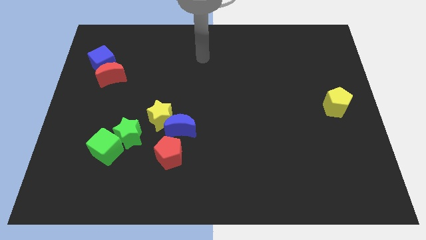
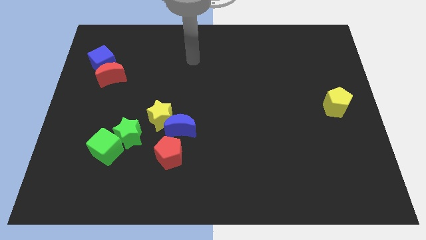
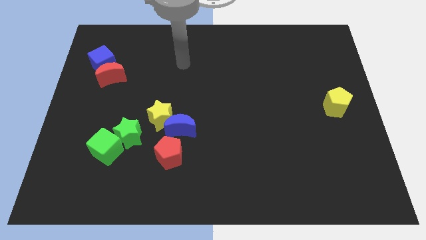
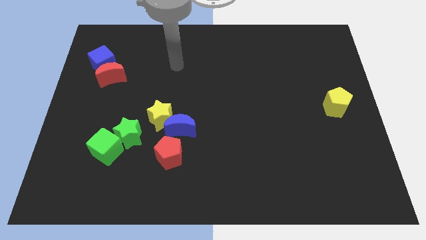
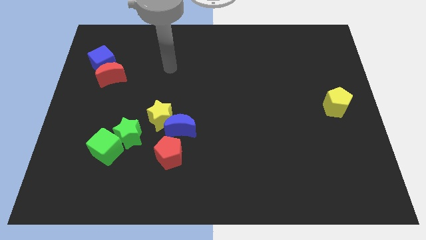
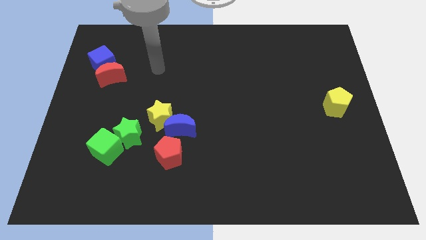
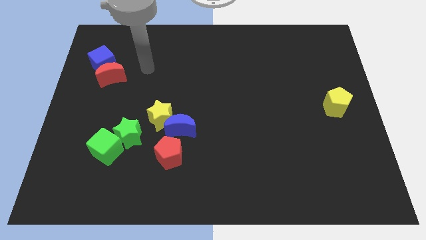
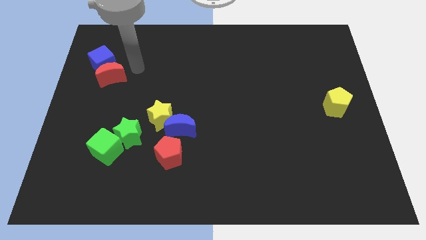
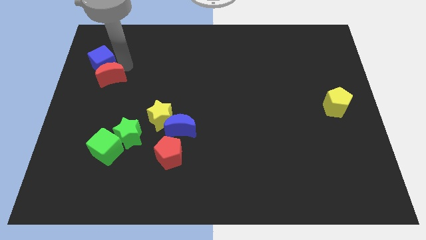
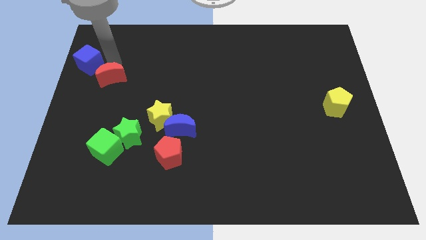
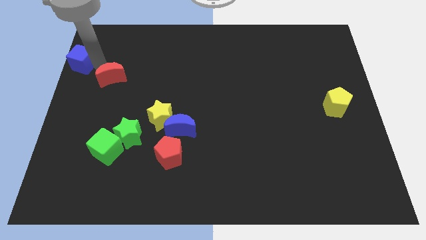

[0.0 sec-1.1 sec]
pull the red moon apart from the blue cube

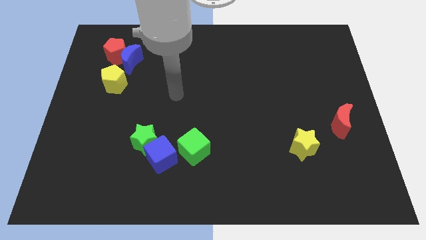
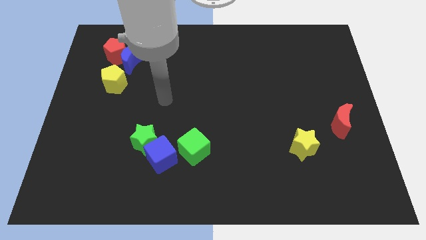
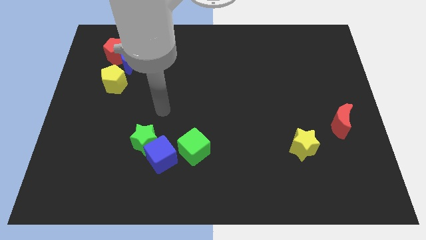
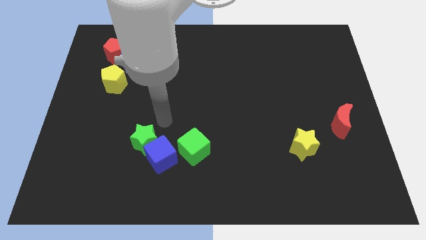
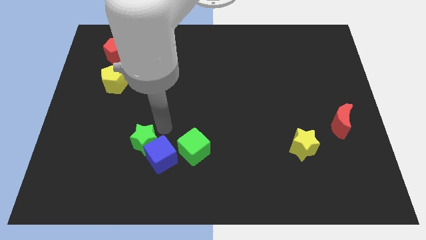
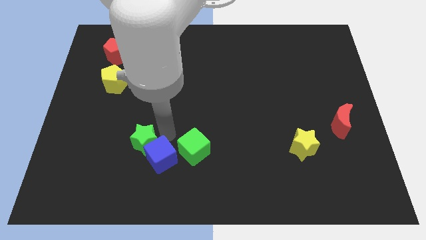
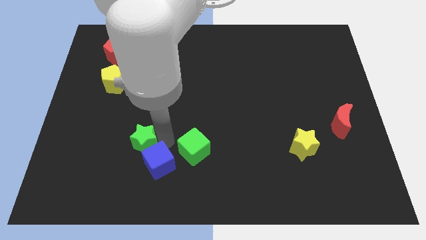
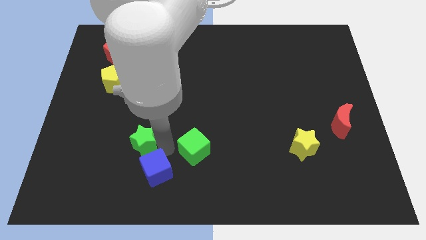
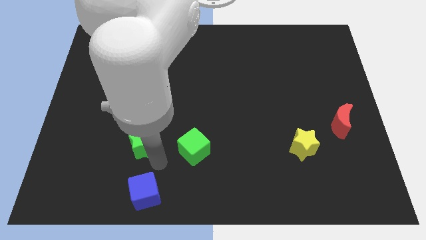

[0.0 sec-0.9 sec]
move the green star away from the blue cube

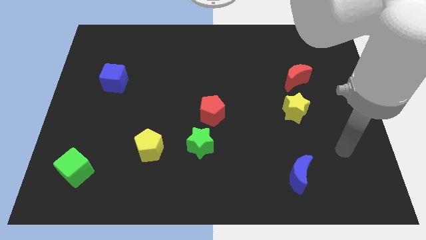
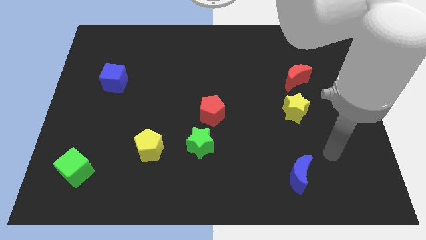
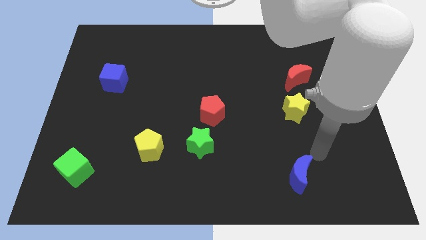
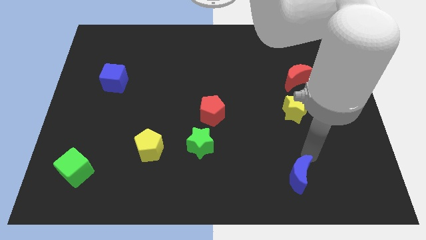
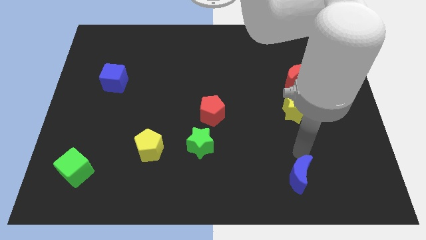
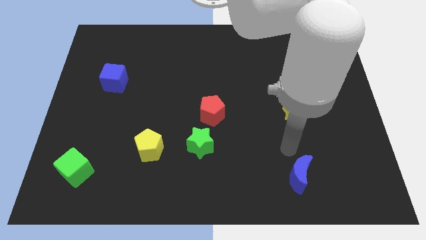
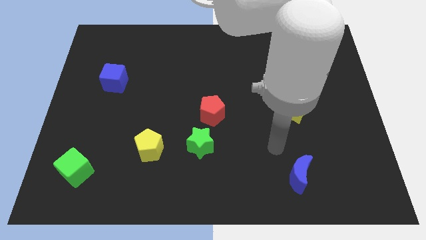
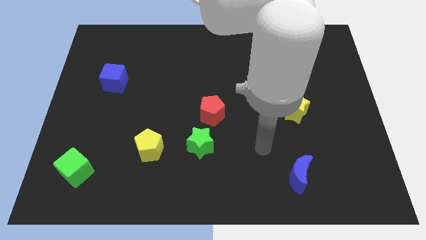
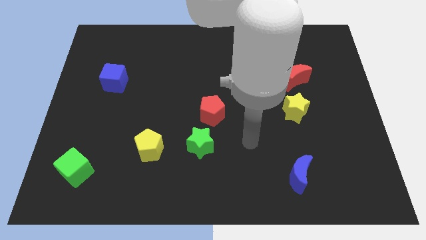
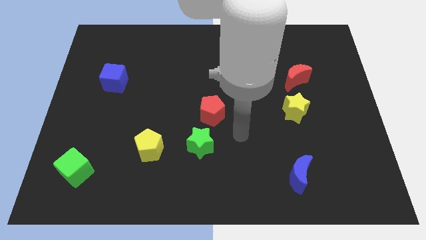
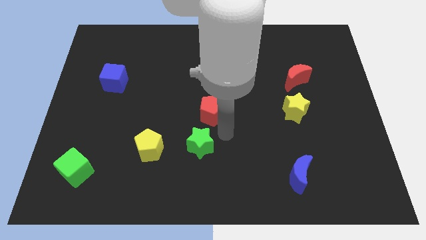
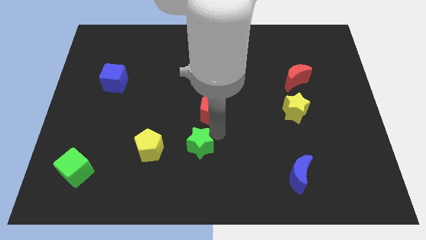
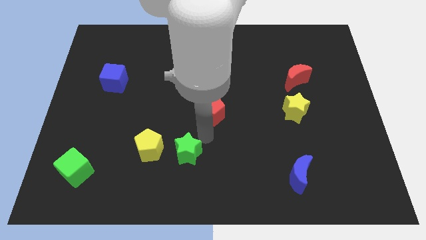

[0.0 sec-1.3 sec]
move the red pentagon away from the green star

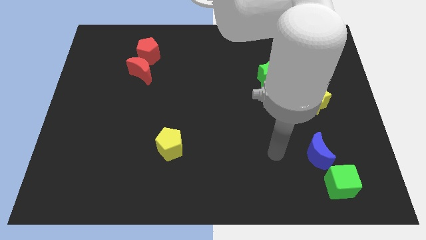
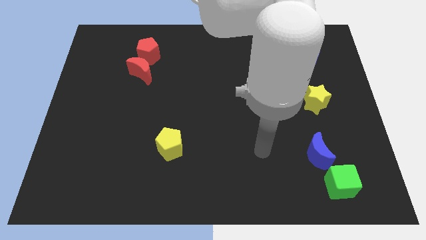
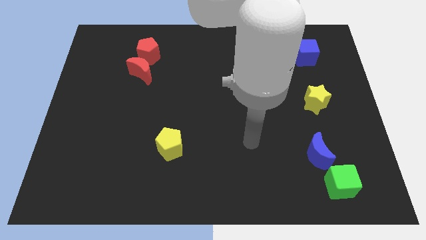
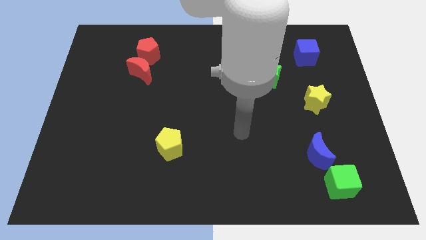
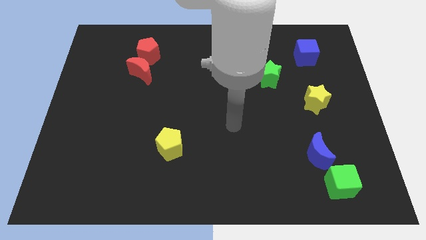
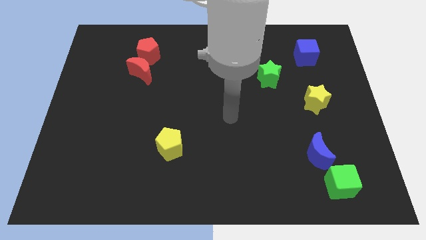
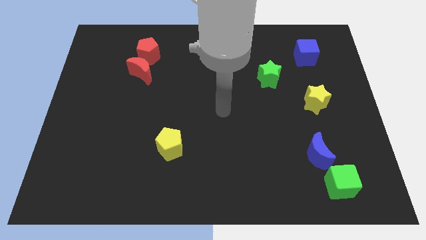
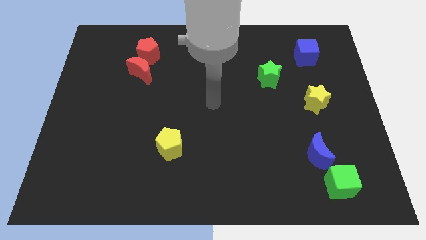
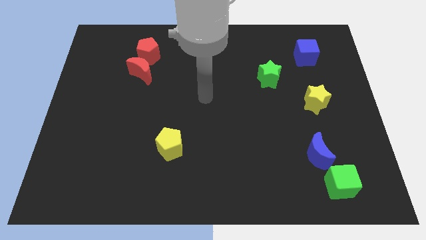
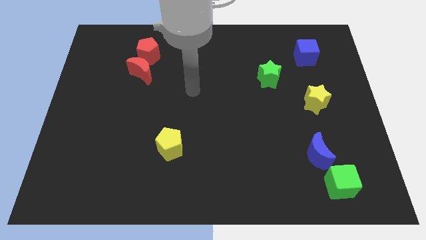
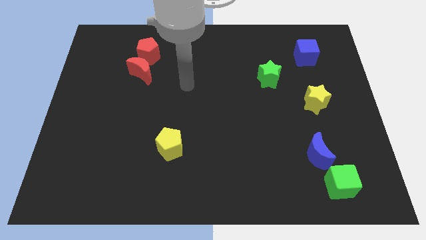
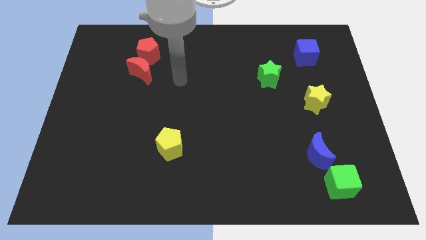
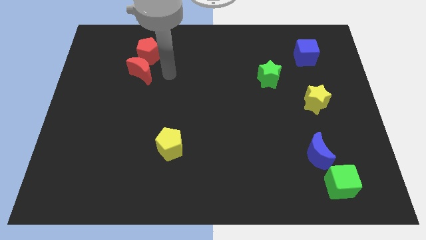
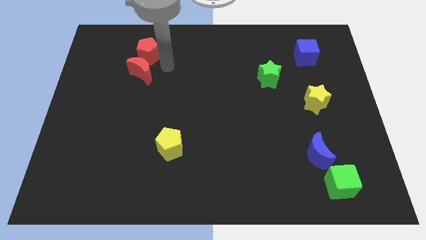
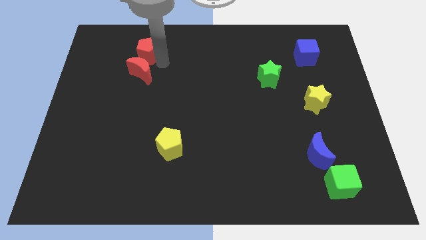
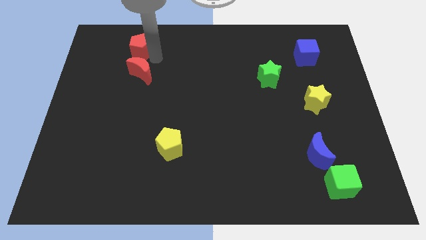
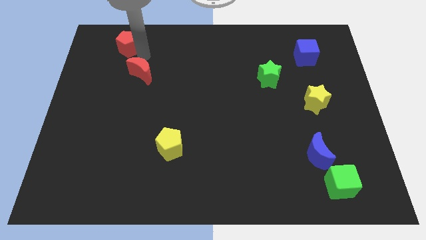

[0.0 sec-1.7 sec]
separate the red moon from the red pentagon

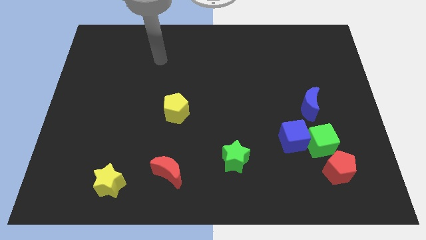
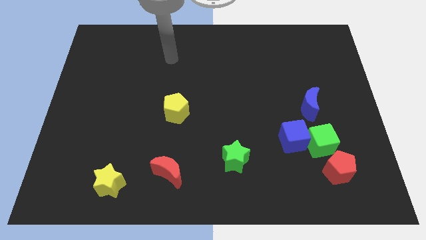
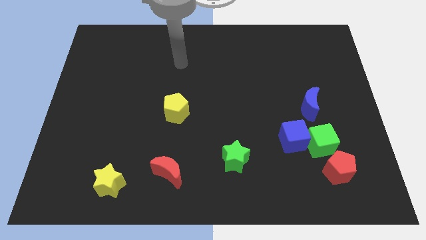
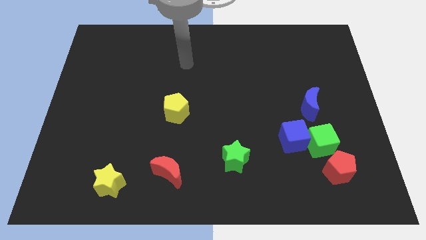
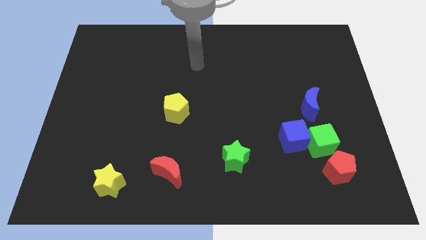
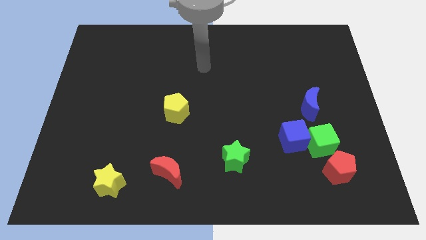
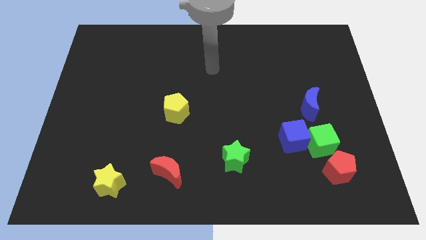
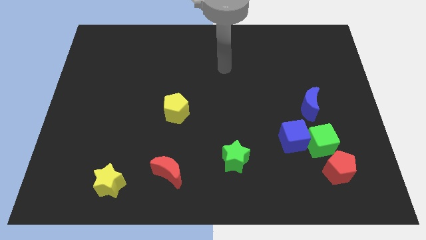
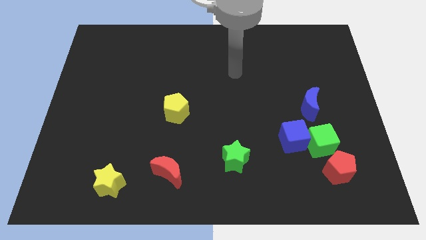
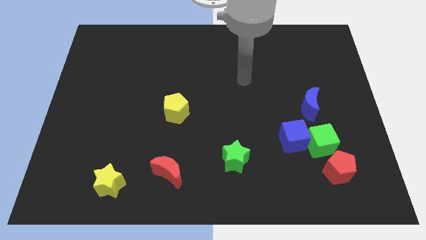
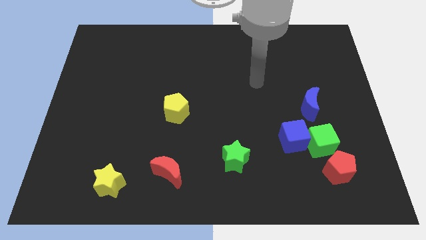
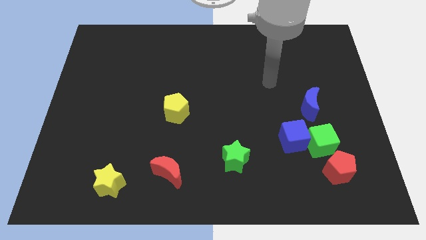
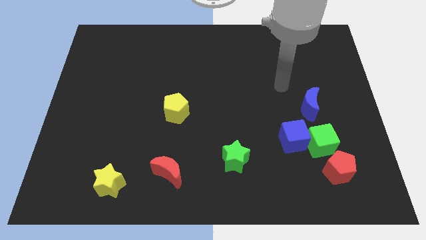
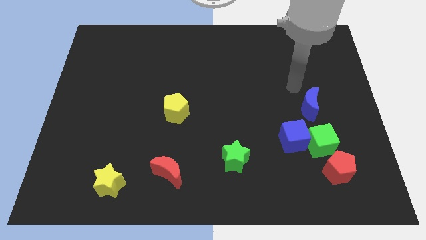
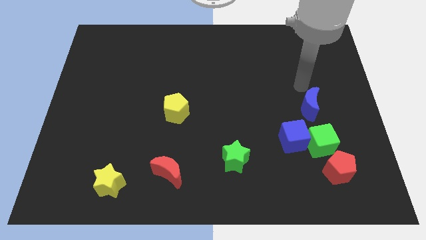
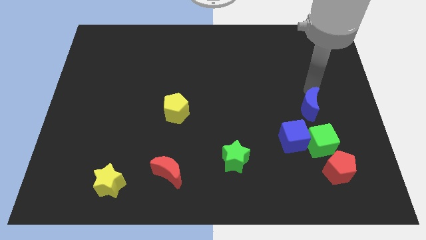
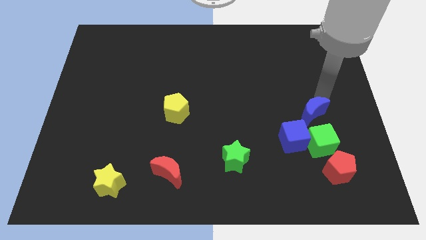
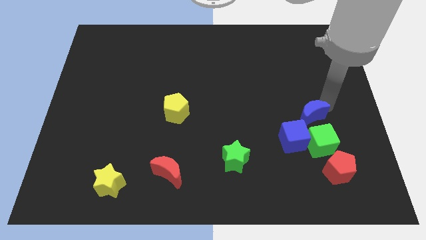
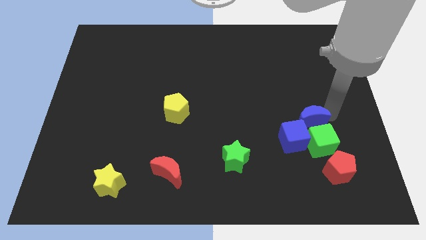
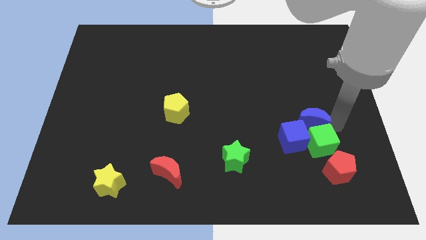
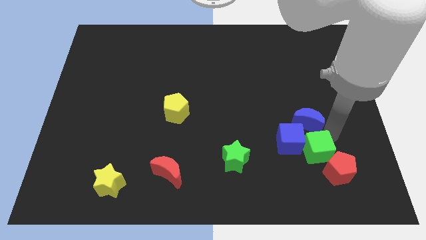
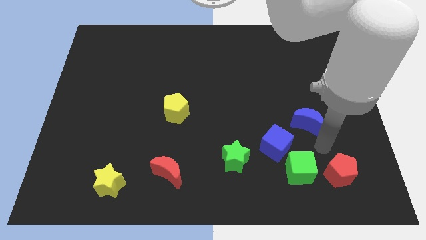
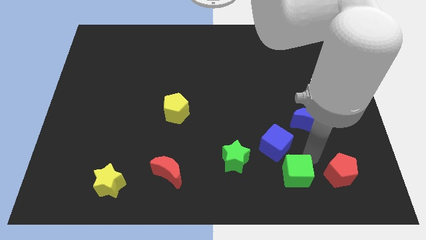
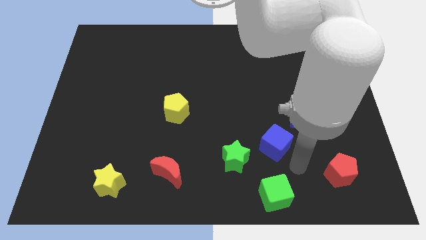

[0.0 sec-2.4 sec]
pull the blue cube apart from the green cube

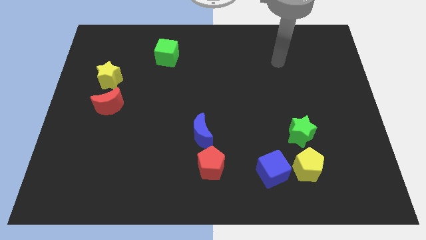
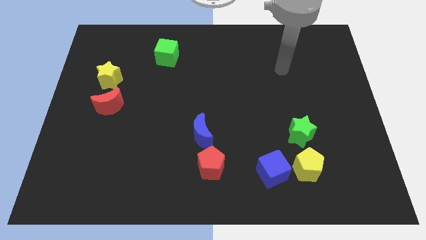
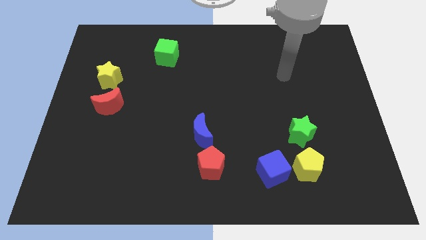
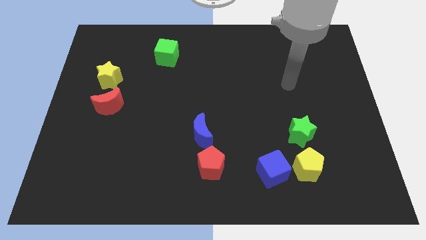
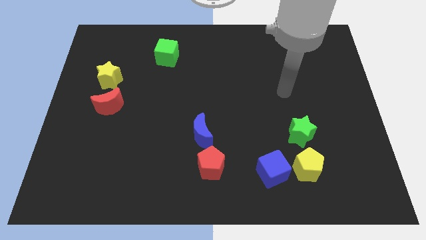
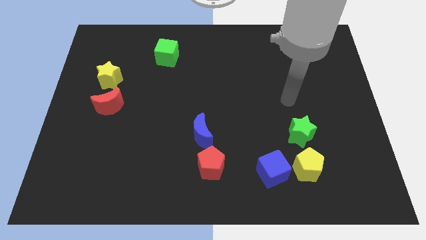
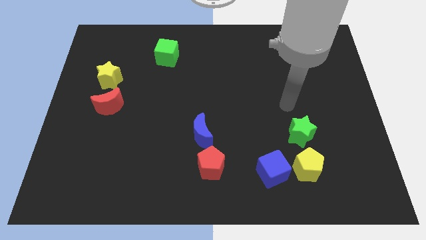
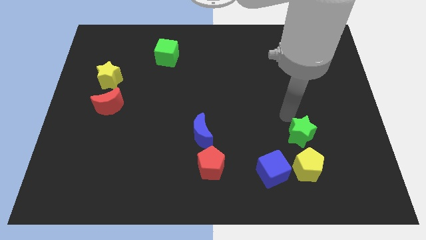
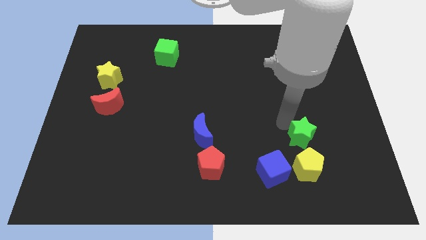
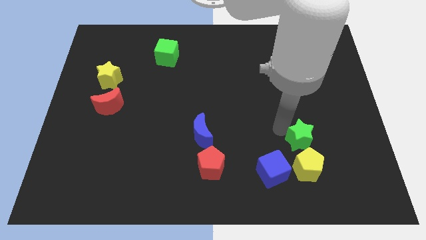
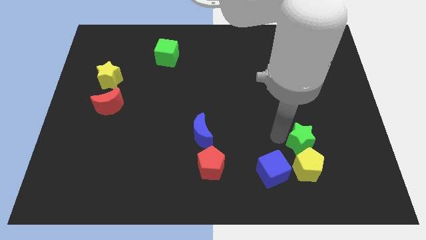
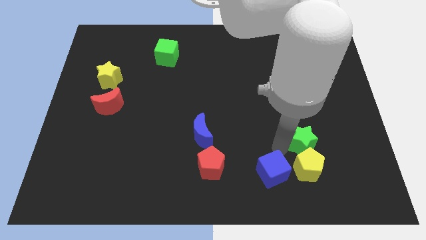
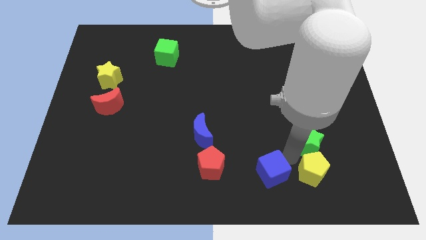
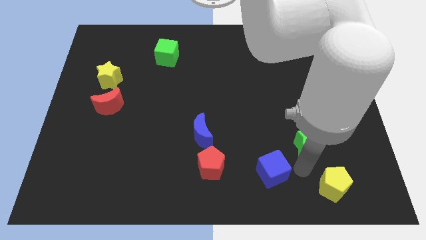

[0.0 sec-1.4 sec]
pull the blue cube apart from the yellow pentagon

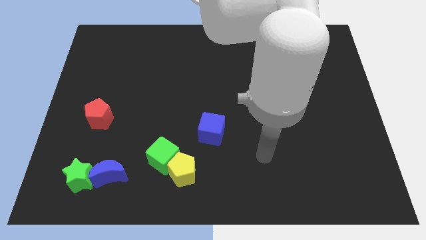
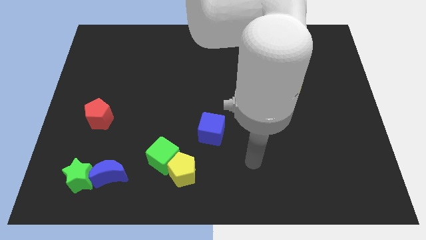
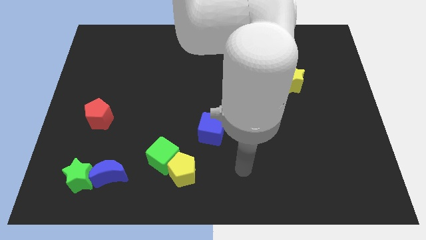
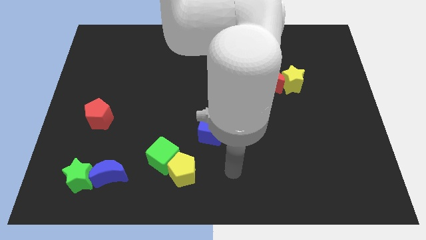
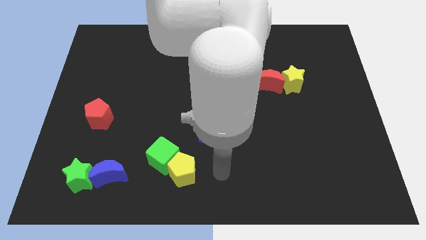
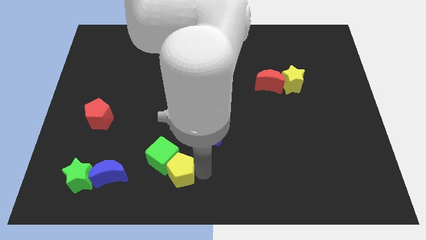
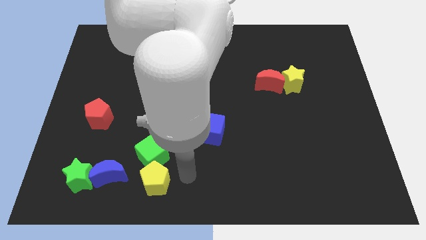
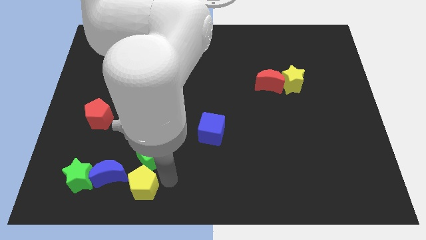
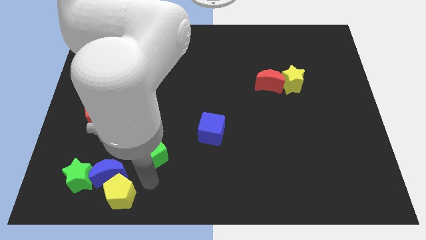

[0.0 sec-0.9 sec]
pull the green cube apart from the yellow pentagon
